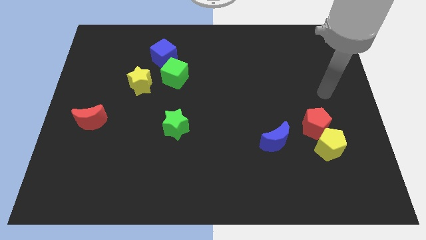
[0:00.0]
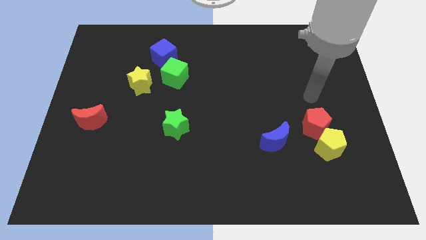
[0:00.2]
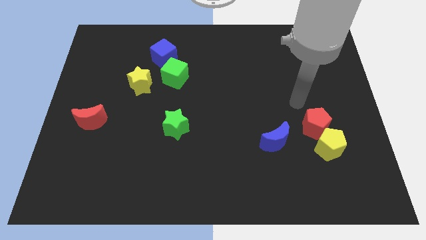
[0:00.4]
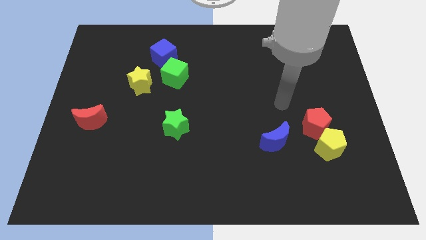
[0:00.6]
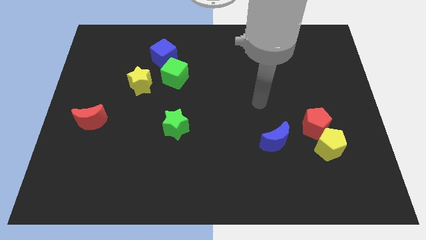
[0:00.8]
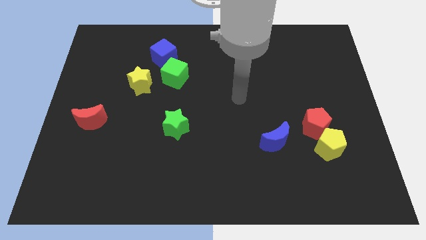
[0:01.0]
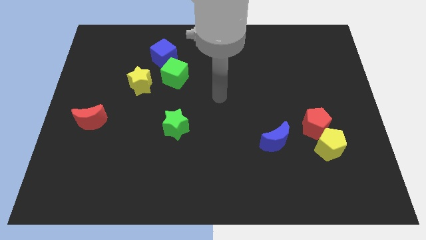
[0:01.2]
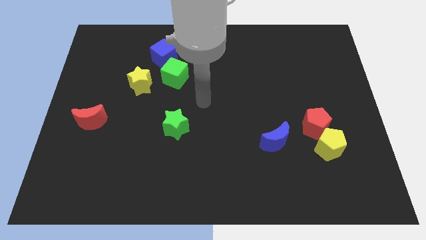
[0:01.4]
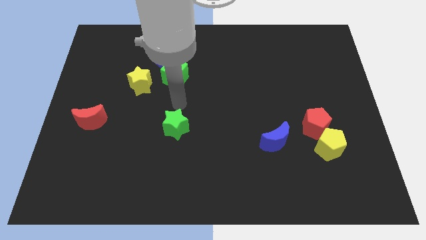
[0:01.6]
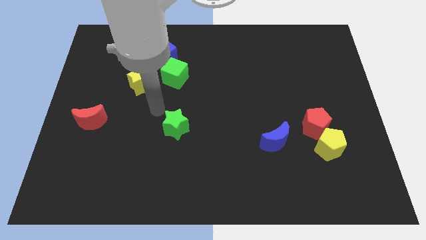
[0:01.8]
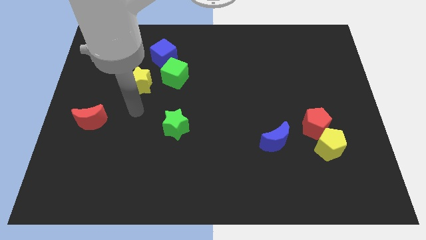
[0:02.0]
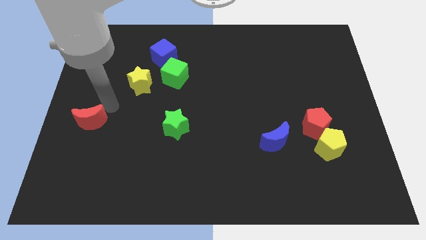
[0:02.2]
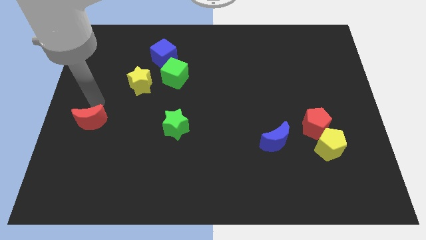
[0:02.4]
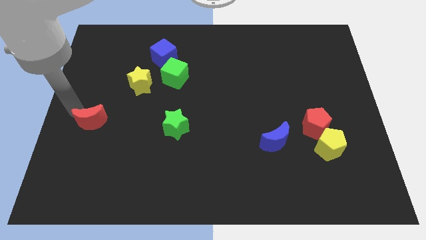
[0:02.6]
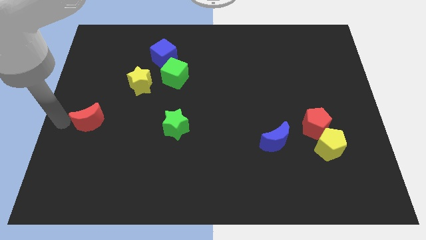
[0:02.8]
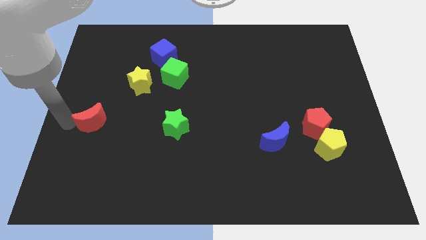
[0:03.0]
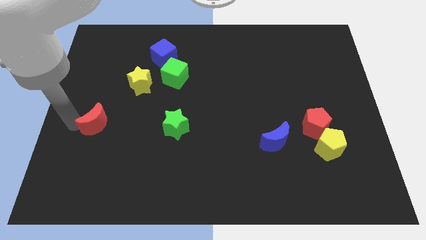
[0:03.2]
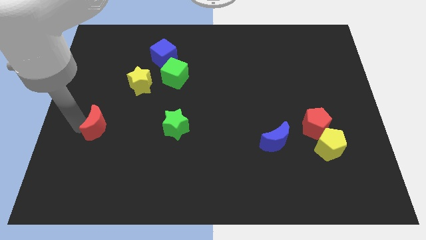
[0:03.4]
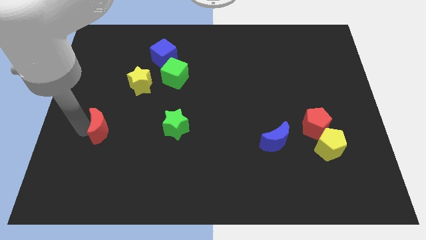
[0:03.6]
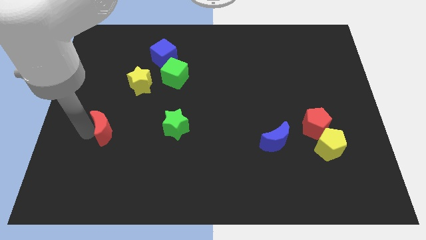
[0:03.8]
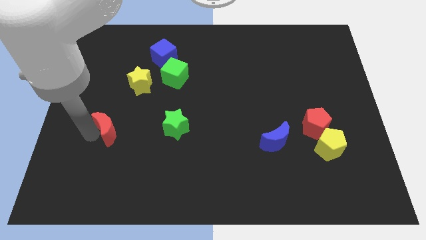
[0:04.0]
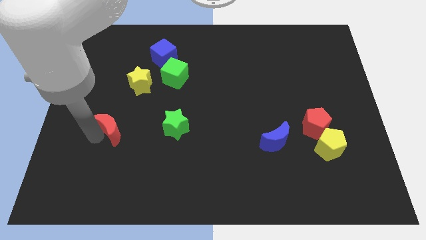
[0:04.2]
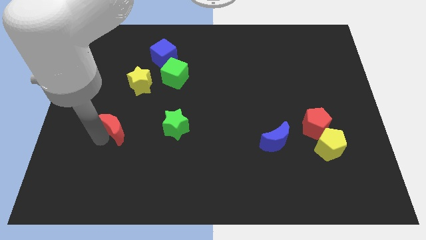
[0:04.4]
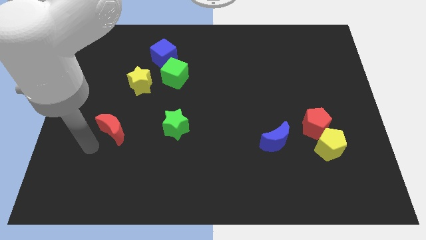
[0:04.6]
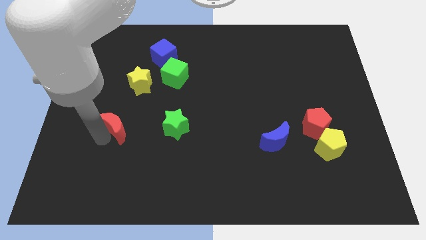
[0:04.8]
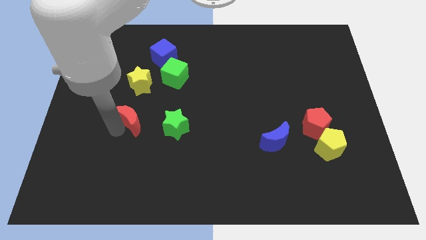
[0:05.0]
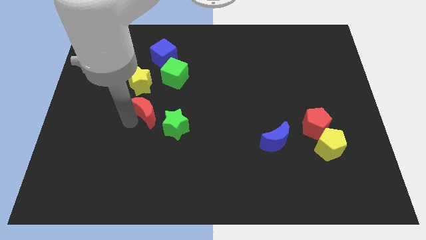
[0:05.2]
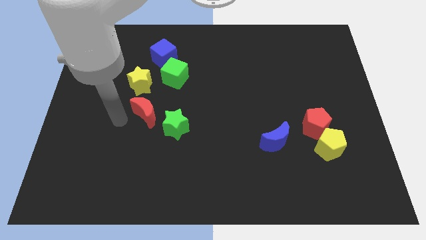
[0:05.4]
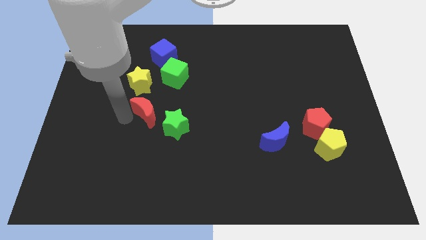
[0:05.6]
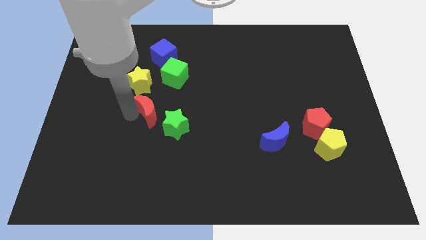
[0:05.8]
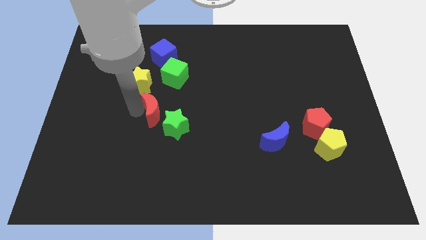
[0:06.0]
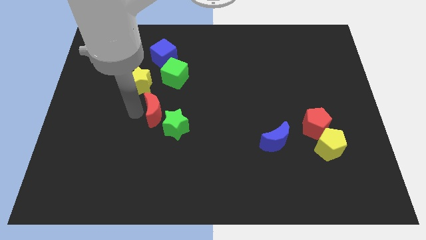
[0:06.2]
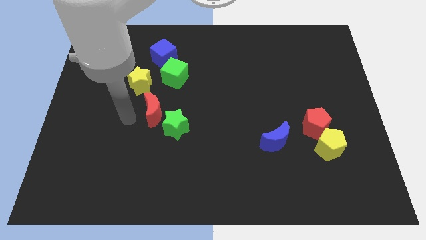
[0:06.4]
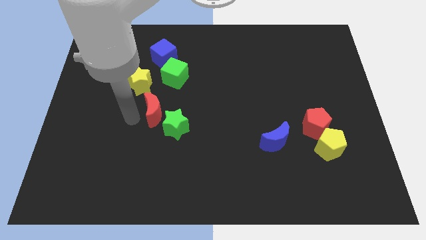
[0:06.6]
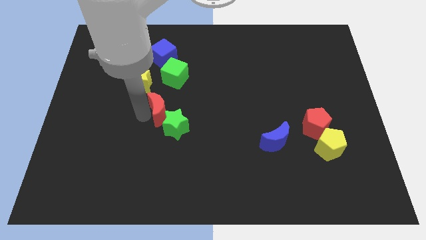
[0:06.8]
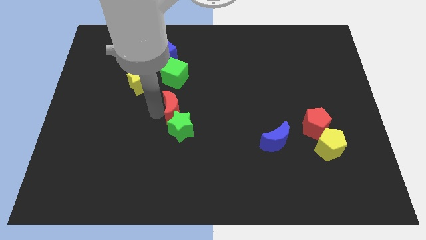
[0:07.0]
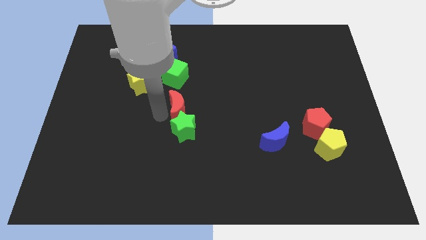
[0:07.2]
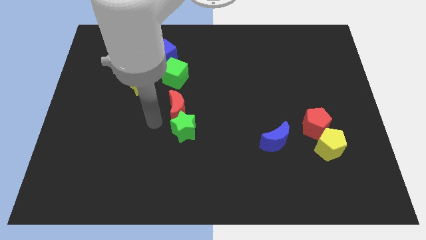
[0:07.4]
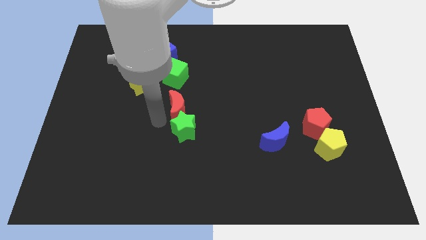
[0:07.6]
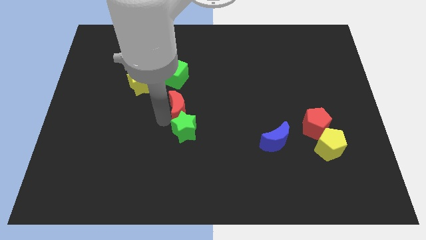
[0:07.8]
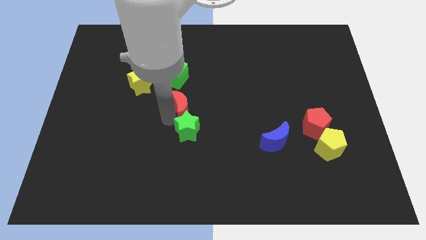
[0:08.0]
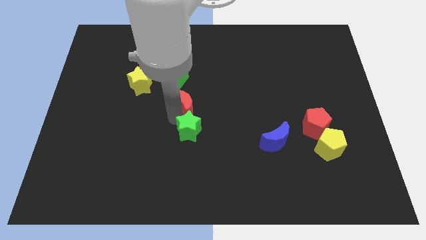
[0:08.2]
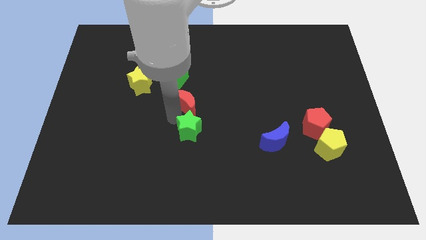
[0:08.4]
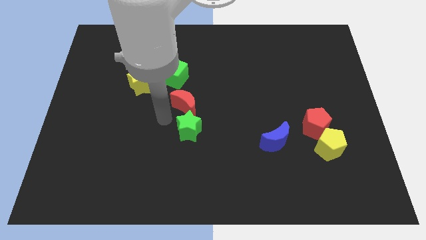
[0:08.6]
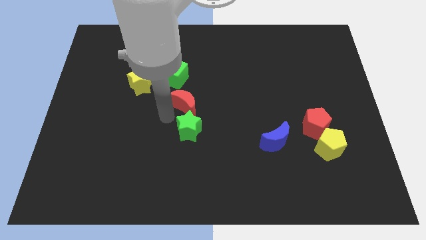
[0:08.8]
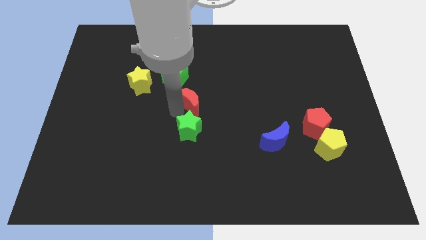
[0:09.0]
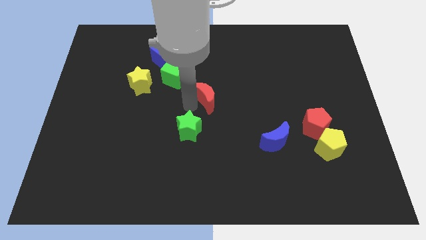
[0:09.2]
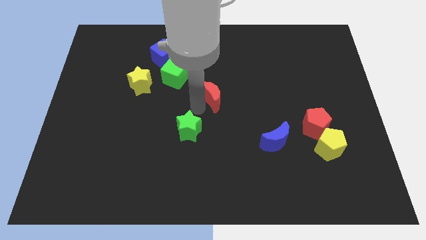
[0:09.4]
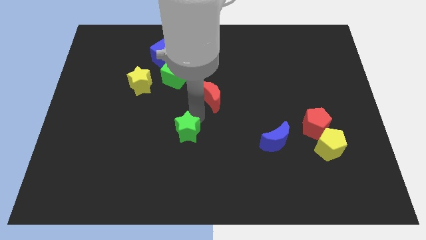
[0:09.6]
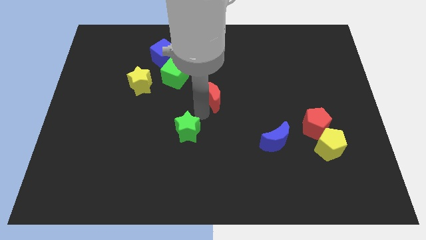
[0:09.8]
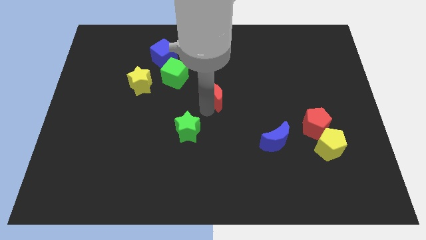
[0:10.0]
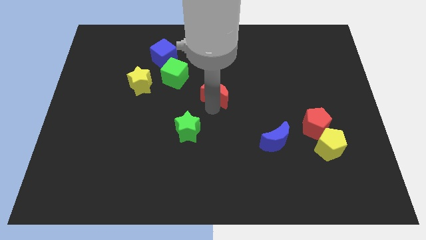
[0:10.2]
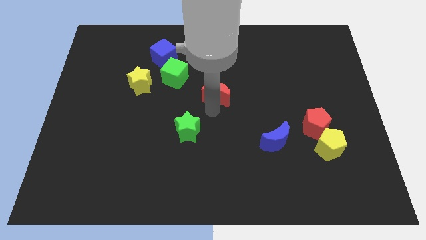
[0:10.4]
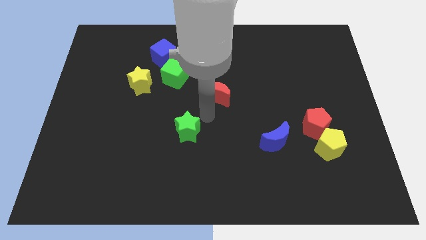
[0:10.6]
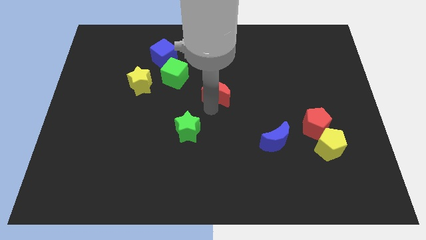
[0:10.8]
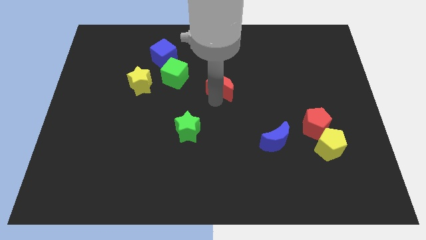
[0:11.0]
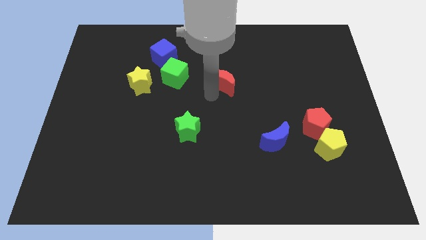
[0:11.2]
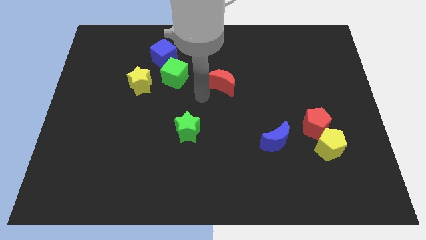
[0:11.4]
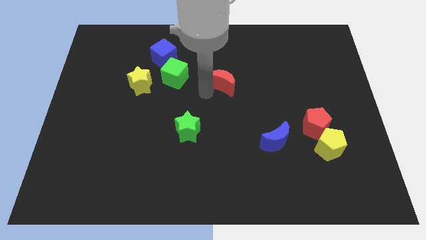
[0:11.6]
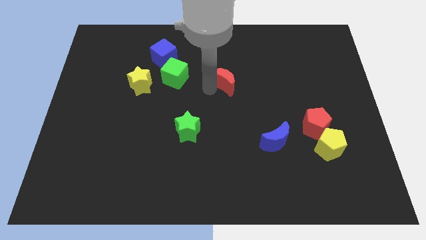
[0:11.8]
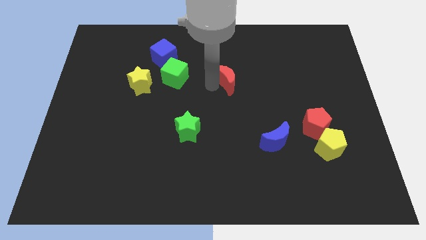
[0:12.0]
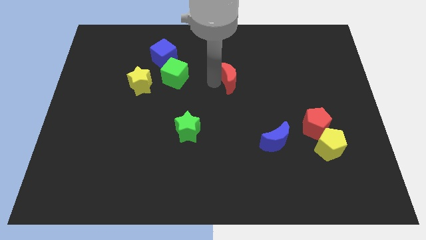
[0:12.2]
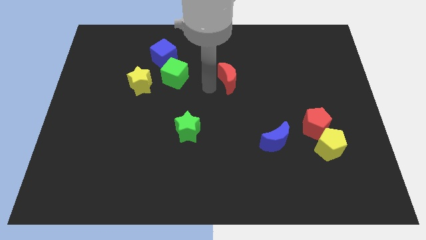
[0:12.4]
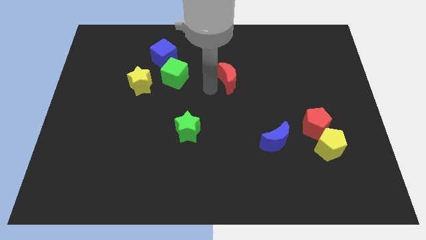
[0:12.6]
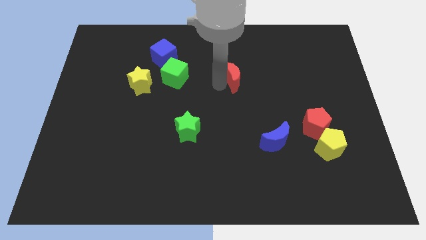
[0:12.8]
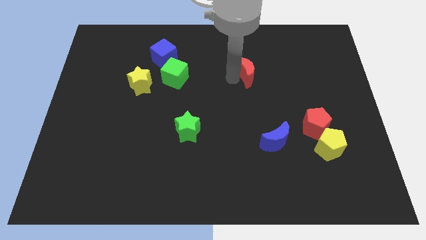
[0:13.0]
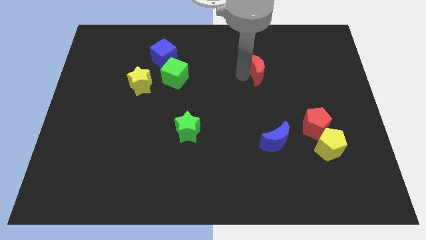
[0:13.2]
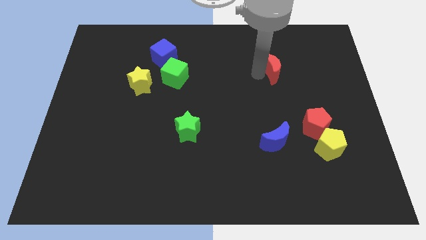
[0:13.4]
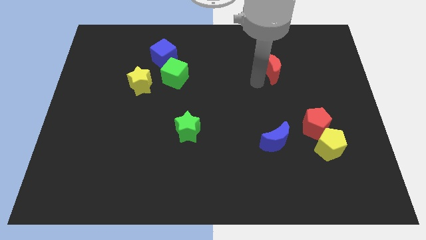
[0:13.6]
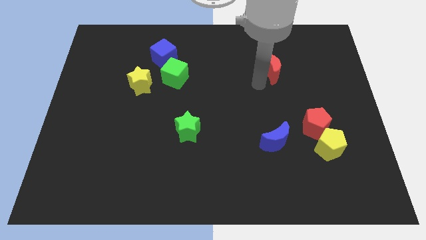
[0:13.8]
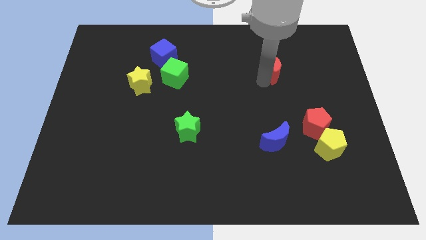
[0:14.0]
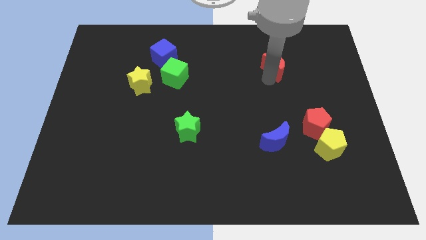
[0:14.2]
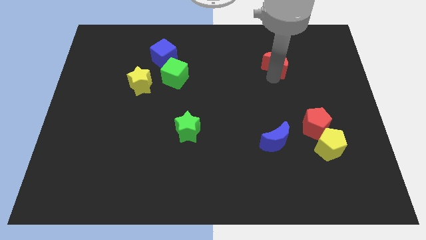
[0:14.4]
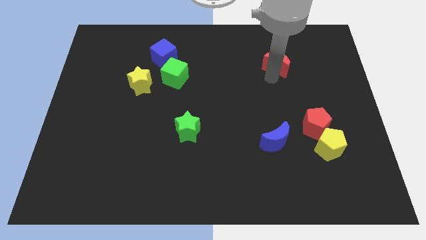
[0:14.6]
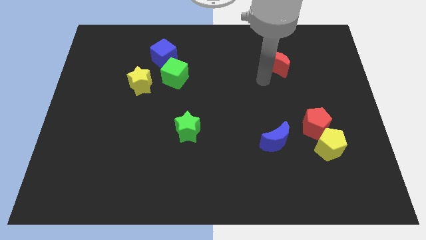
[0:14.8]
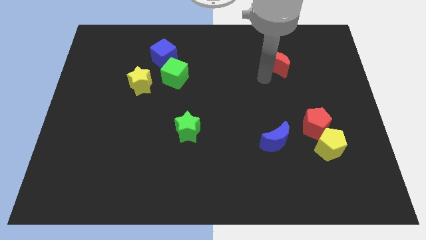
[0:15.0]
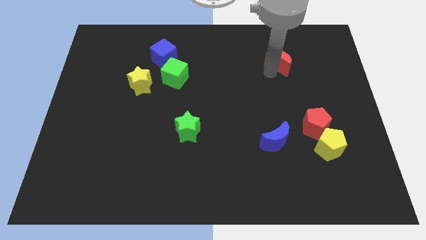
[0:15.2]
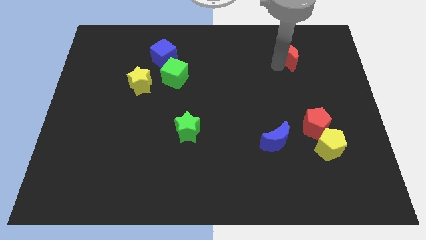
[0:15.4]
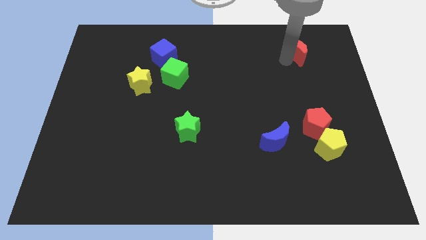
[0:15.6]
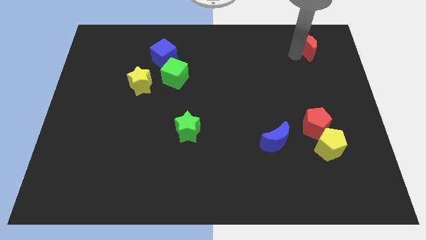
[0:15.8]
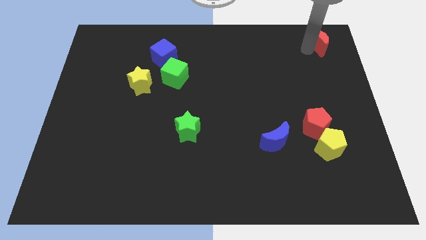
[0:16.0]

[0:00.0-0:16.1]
put the red moon to the top right of the board
